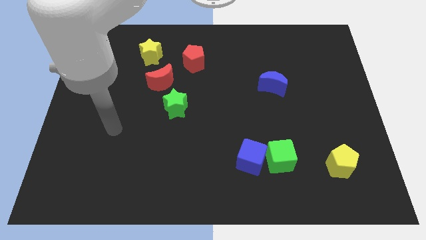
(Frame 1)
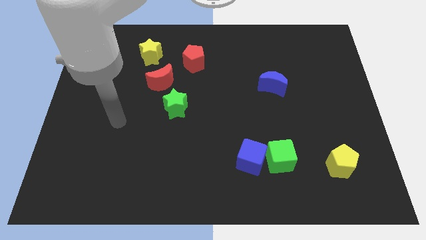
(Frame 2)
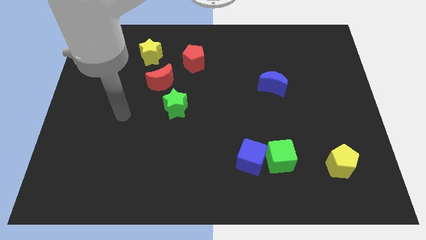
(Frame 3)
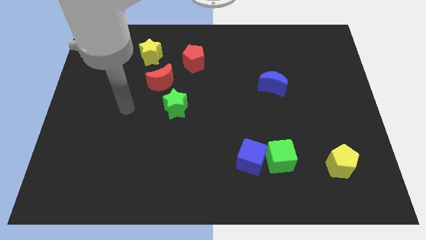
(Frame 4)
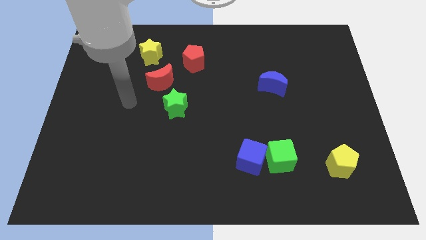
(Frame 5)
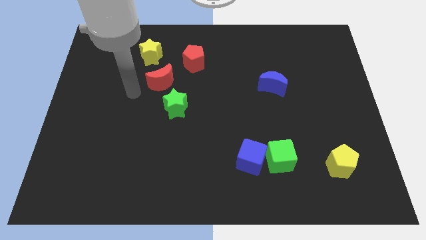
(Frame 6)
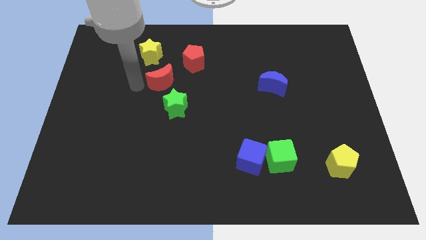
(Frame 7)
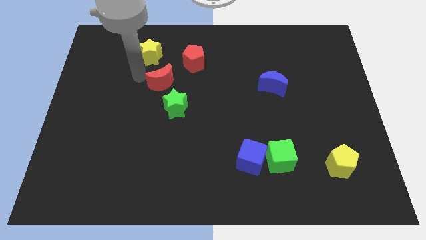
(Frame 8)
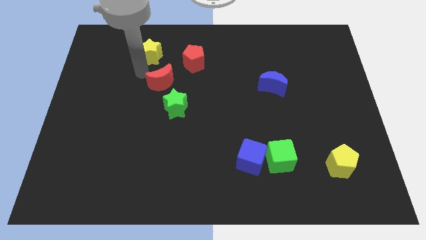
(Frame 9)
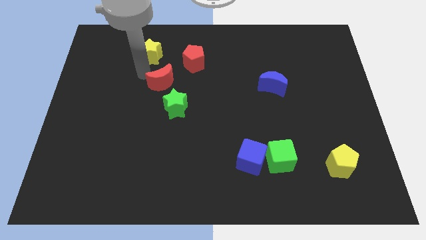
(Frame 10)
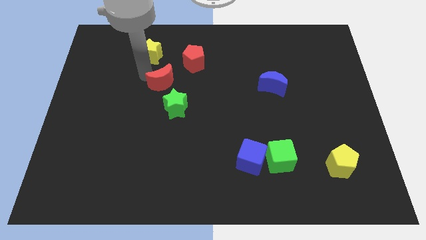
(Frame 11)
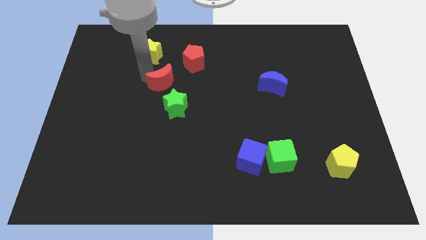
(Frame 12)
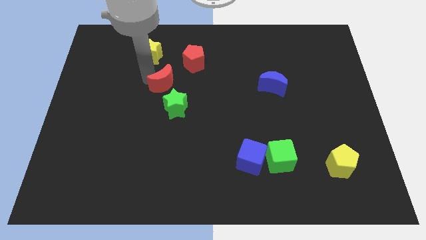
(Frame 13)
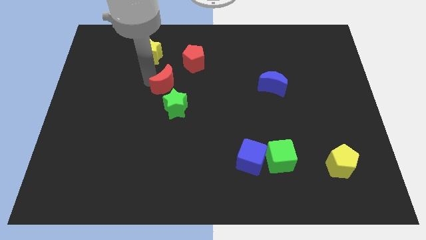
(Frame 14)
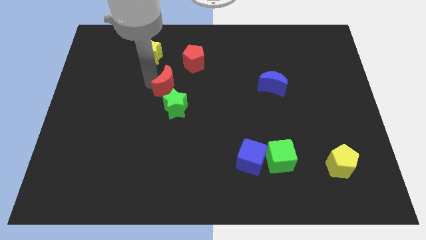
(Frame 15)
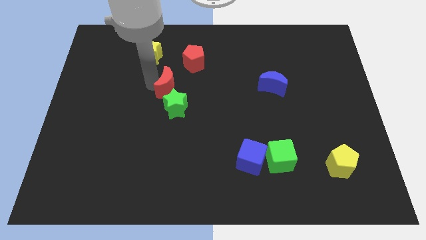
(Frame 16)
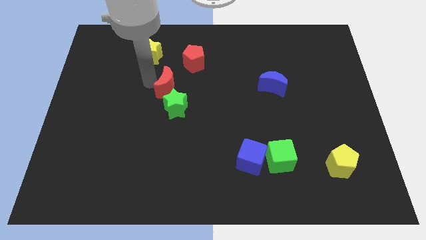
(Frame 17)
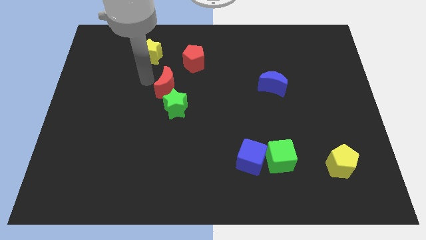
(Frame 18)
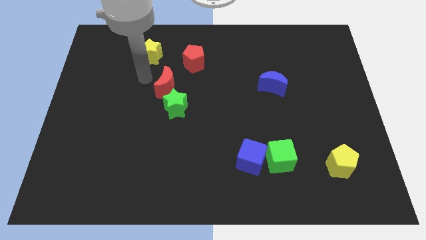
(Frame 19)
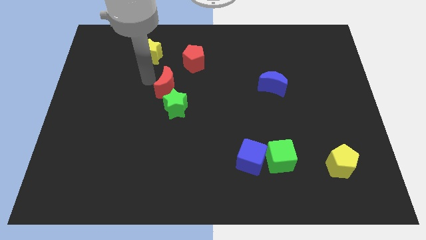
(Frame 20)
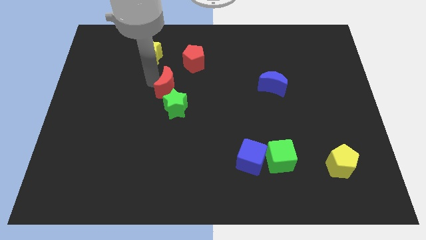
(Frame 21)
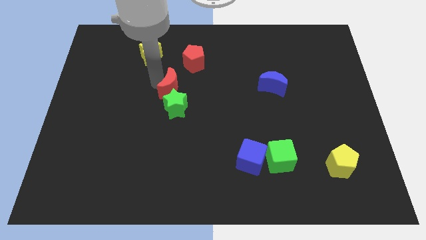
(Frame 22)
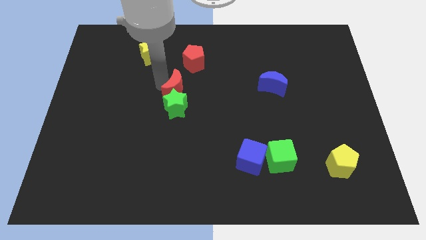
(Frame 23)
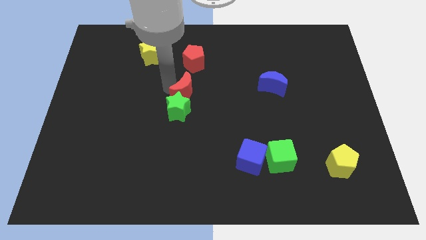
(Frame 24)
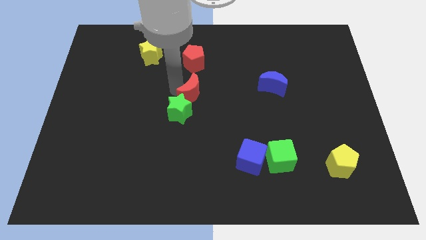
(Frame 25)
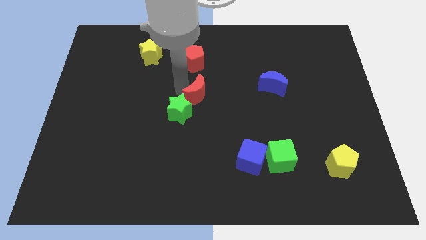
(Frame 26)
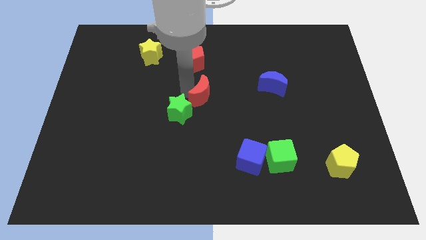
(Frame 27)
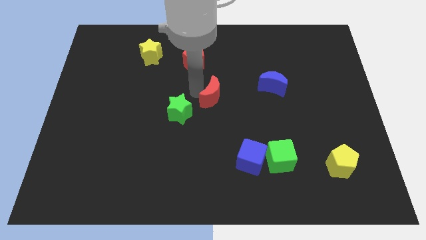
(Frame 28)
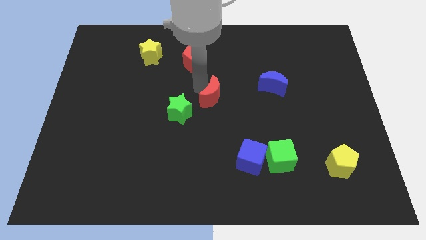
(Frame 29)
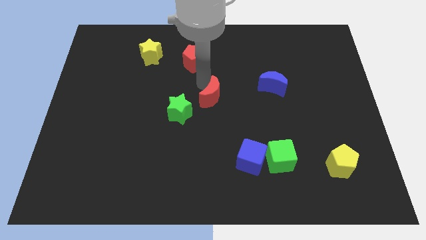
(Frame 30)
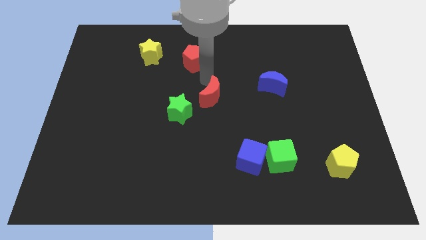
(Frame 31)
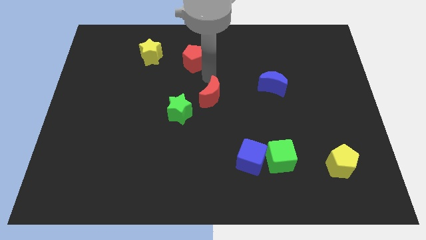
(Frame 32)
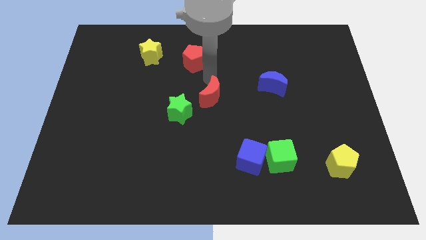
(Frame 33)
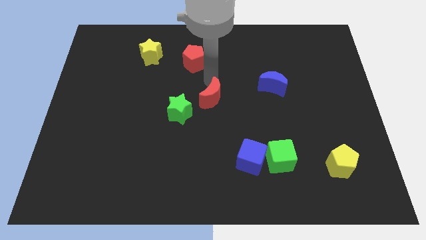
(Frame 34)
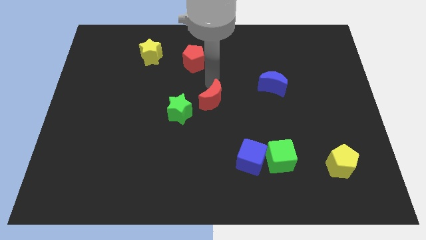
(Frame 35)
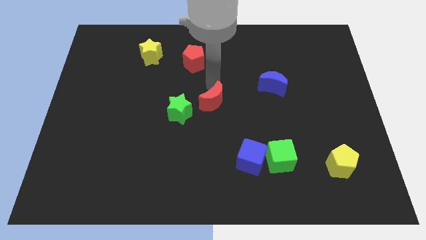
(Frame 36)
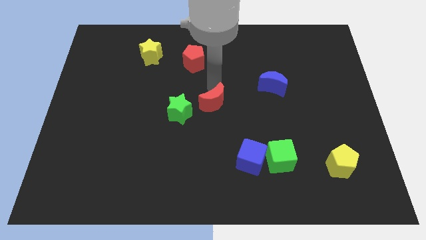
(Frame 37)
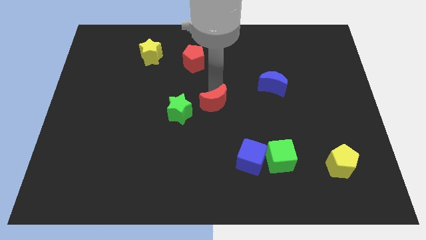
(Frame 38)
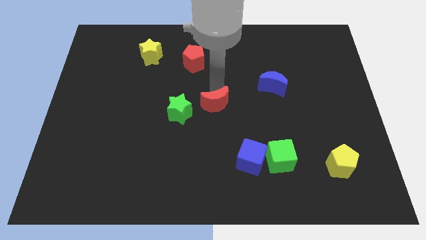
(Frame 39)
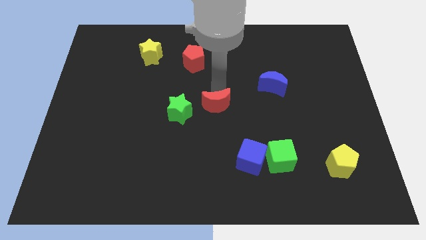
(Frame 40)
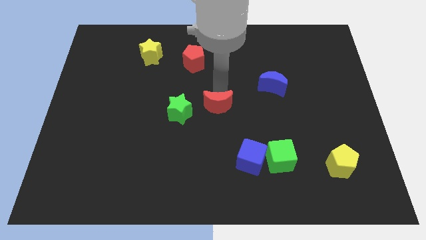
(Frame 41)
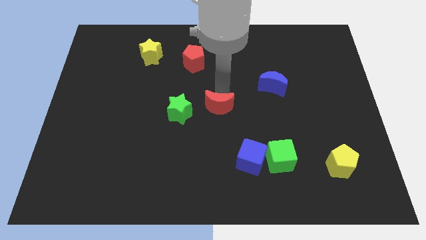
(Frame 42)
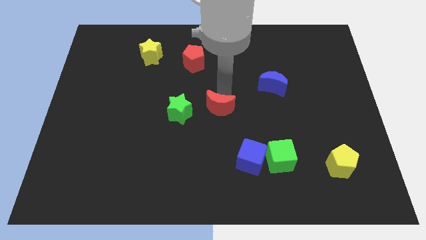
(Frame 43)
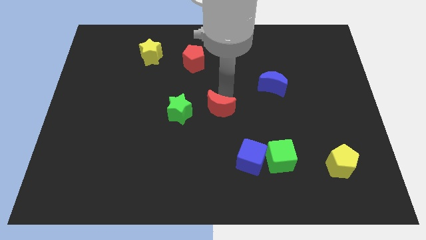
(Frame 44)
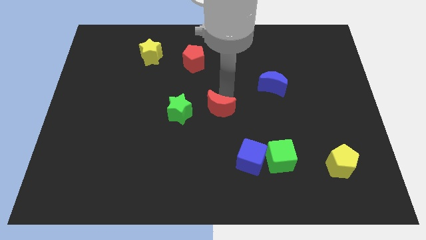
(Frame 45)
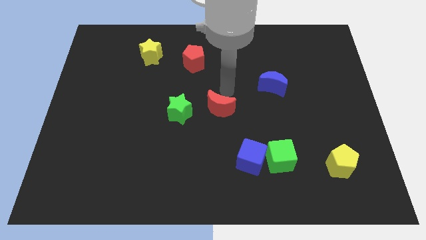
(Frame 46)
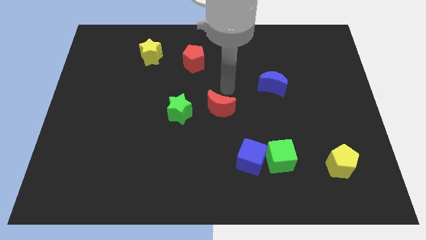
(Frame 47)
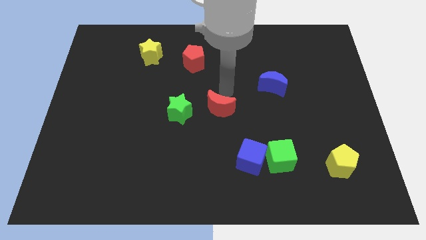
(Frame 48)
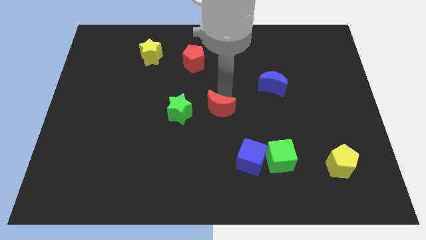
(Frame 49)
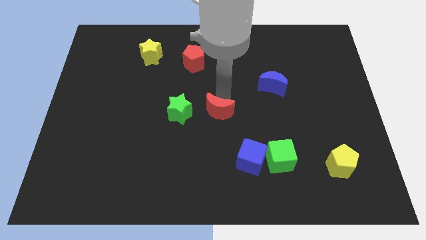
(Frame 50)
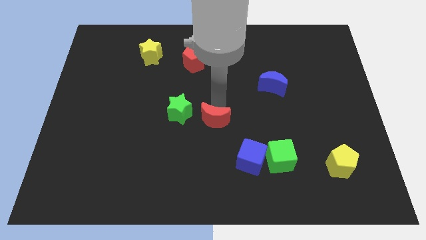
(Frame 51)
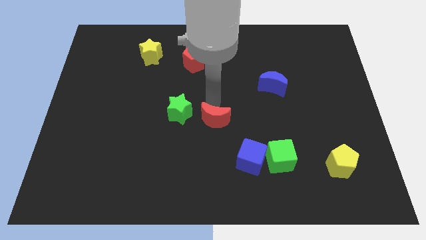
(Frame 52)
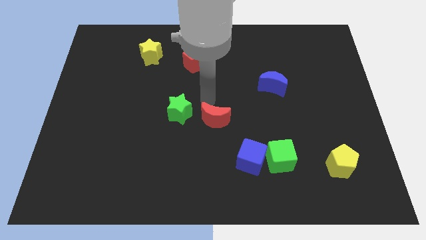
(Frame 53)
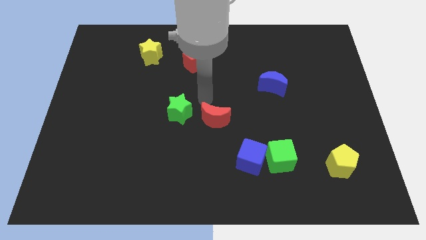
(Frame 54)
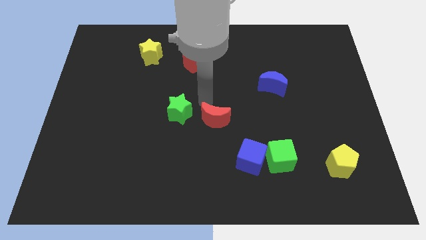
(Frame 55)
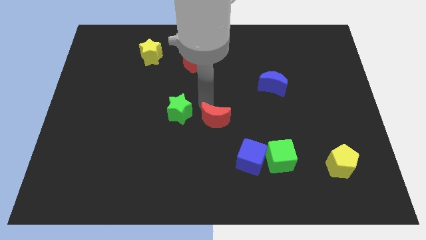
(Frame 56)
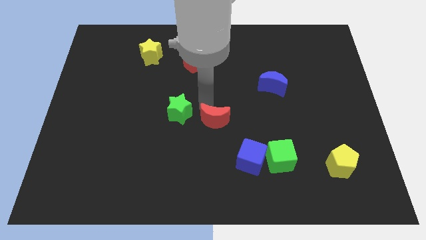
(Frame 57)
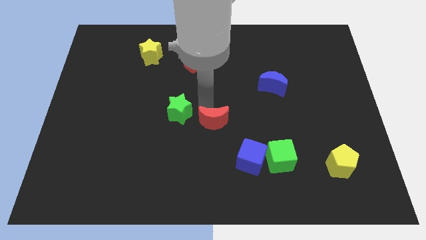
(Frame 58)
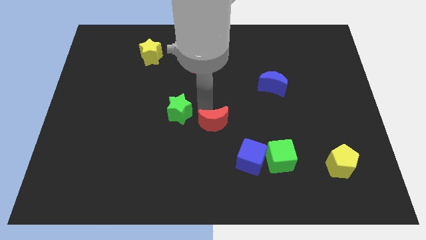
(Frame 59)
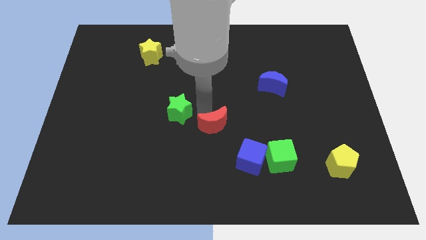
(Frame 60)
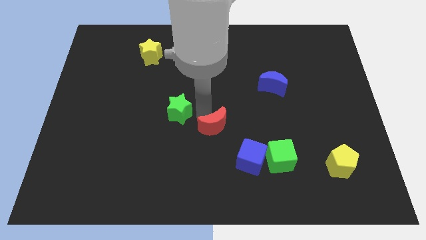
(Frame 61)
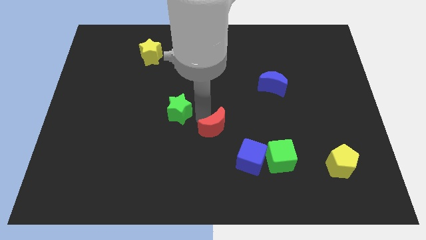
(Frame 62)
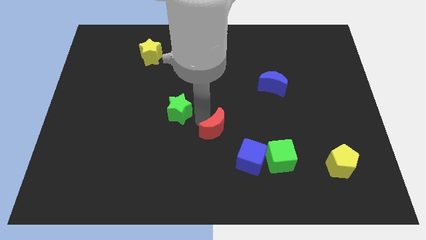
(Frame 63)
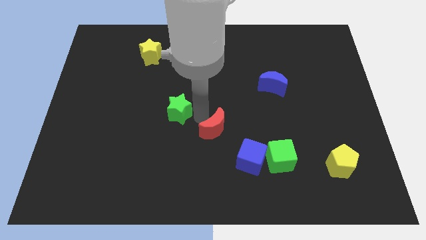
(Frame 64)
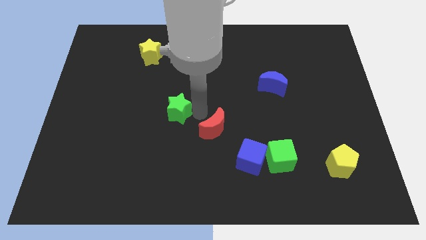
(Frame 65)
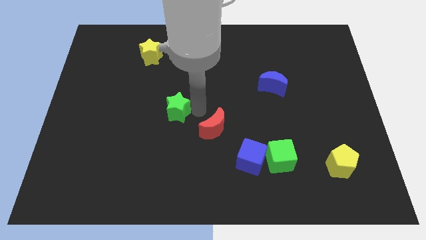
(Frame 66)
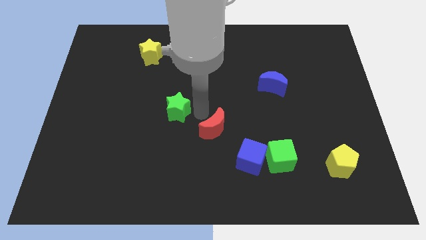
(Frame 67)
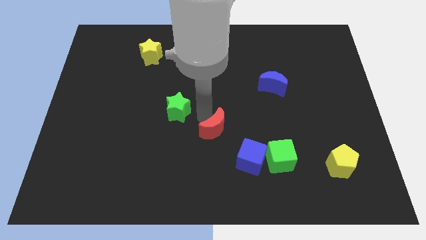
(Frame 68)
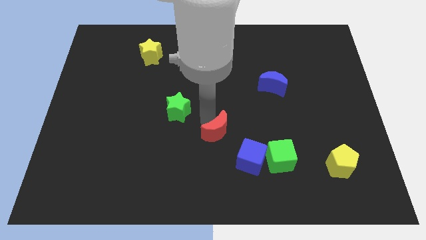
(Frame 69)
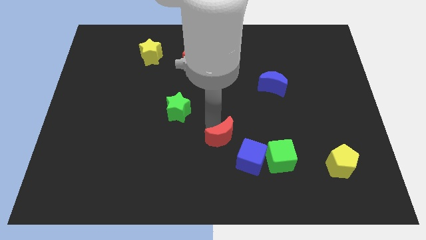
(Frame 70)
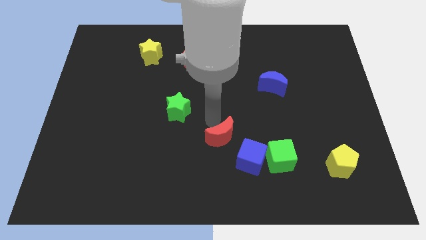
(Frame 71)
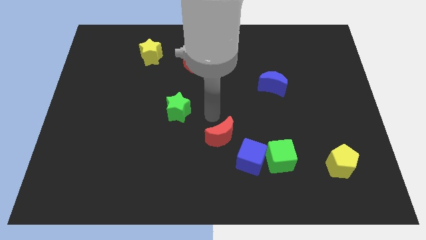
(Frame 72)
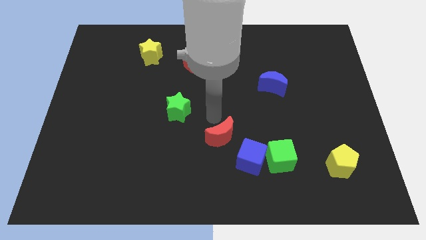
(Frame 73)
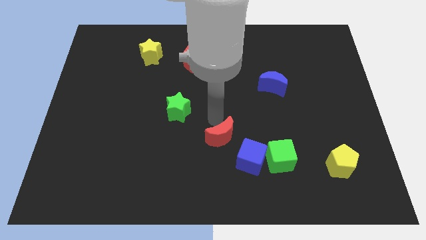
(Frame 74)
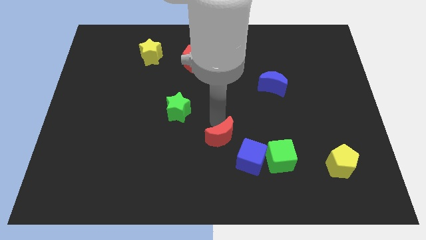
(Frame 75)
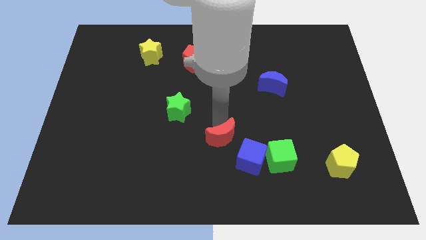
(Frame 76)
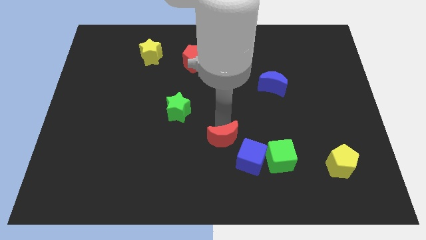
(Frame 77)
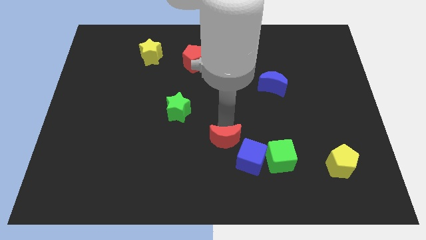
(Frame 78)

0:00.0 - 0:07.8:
push the red moon just left of the green cube
